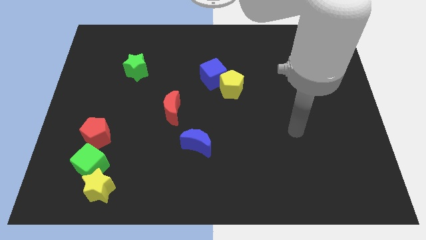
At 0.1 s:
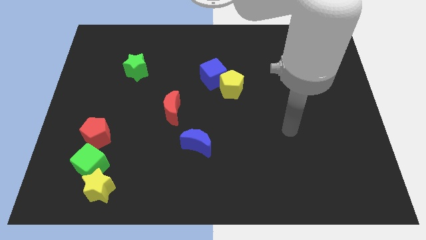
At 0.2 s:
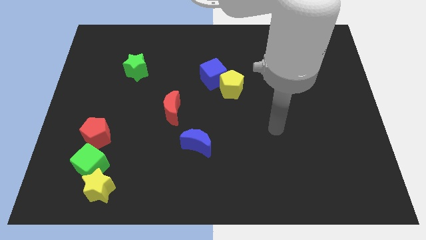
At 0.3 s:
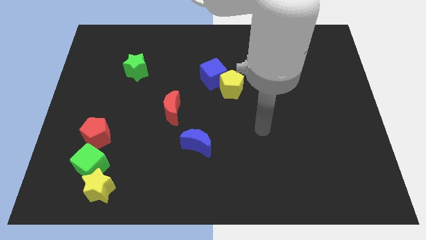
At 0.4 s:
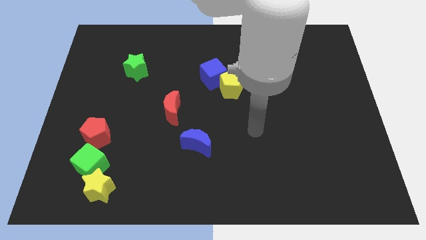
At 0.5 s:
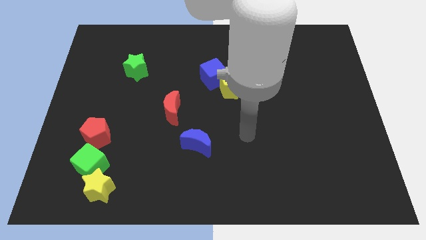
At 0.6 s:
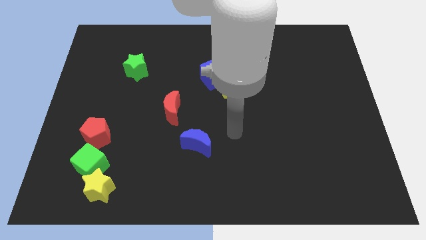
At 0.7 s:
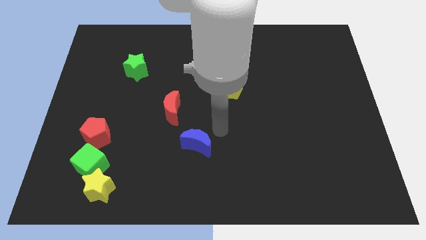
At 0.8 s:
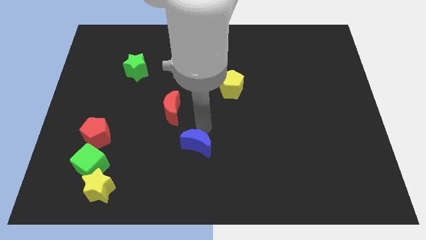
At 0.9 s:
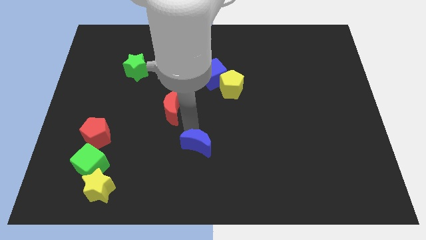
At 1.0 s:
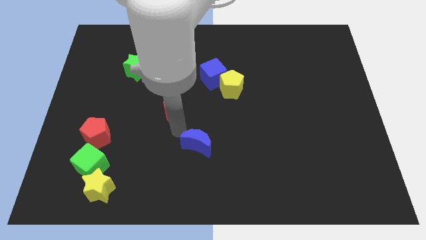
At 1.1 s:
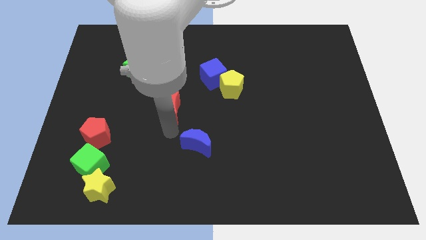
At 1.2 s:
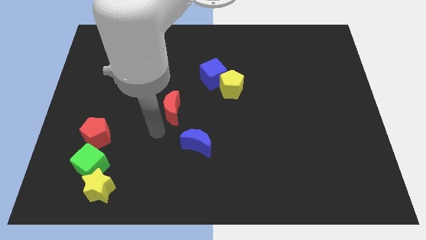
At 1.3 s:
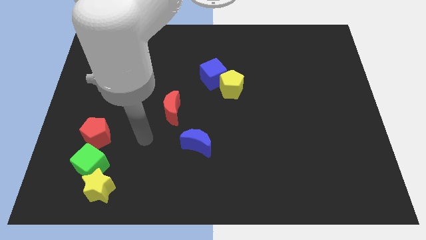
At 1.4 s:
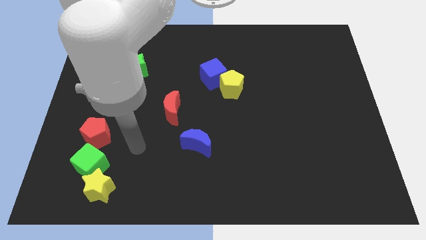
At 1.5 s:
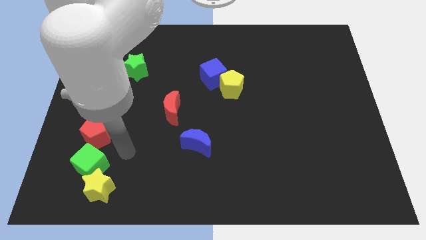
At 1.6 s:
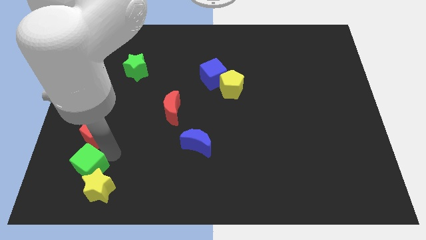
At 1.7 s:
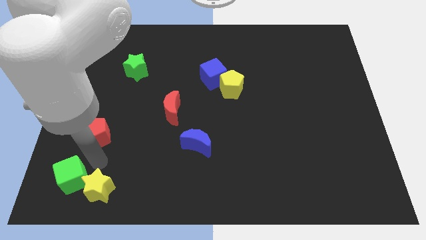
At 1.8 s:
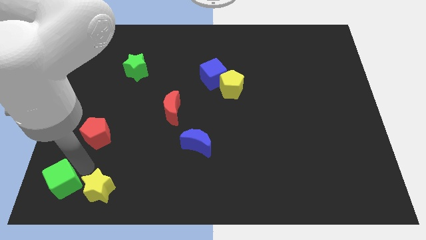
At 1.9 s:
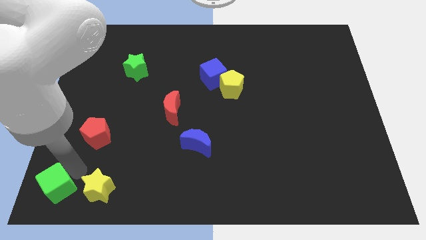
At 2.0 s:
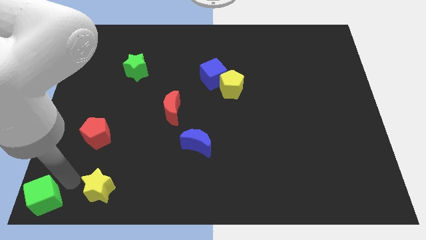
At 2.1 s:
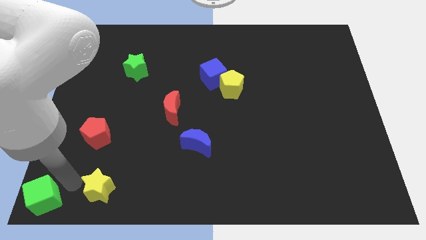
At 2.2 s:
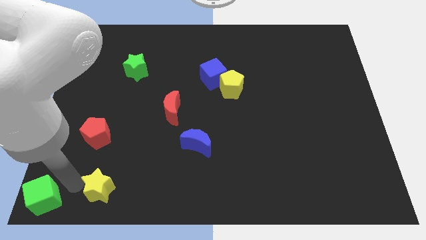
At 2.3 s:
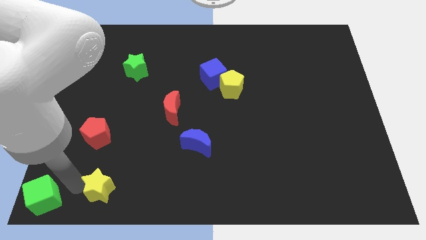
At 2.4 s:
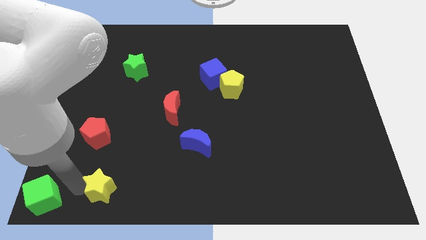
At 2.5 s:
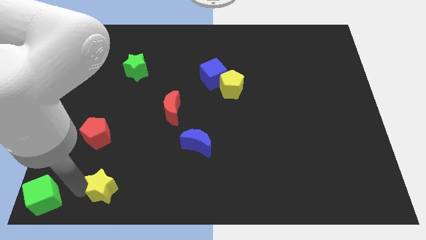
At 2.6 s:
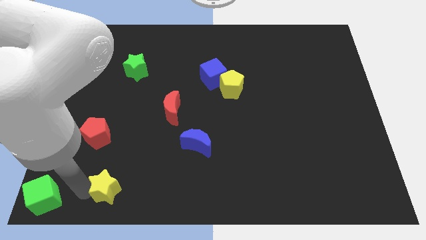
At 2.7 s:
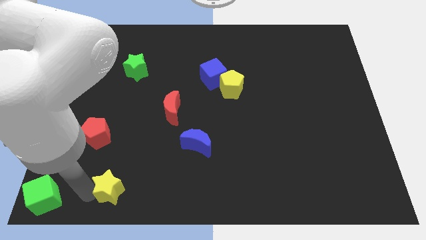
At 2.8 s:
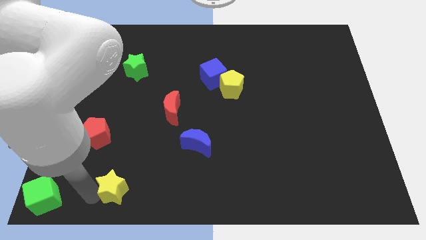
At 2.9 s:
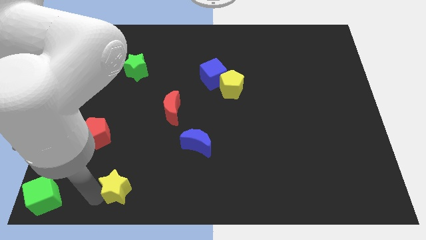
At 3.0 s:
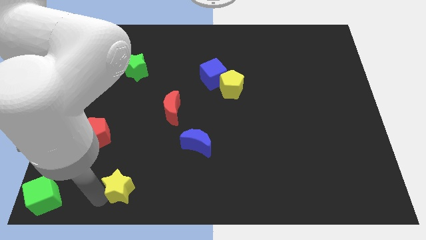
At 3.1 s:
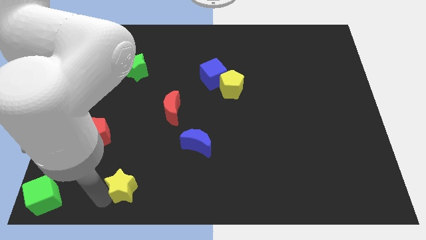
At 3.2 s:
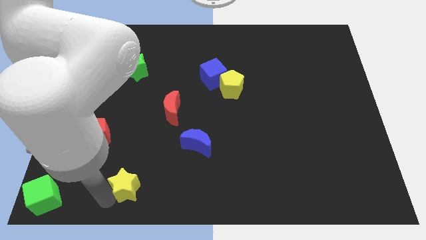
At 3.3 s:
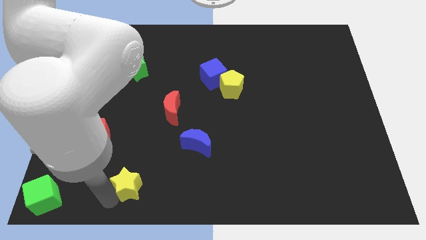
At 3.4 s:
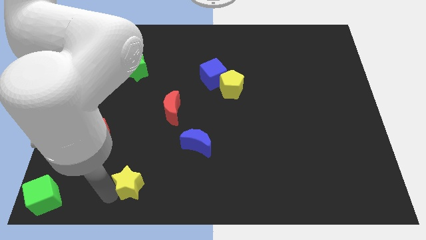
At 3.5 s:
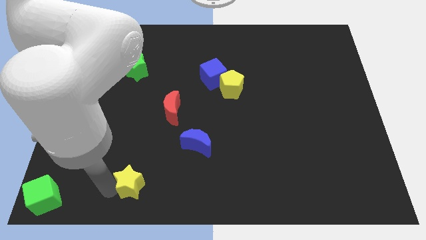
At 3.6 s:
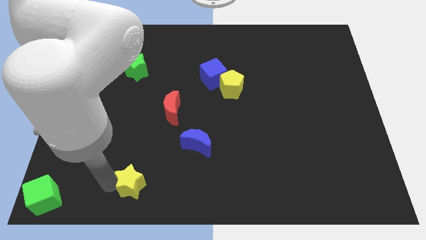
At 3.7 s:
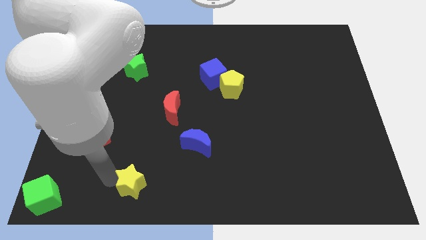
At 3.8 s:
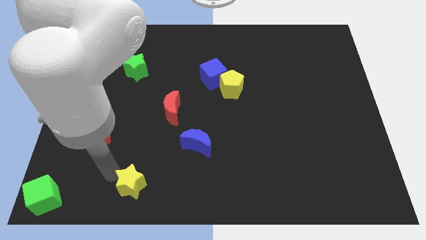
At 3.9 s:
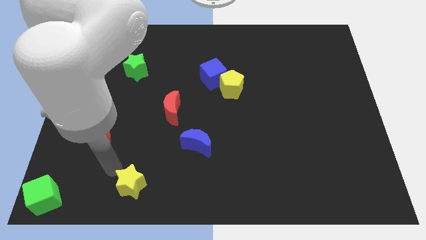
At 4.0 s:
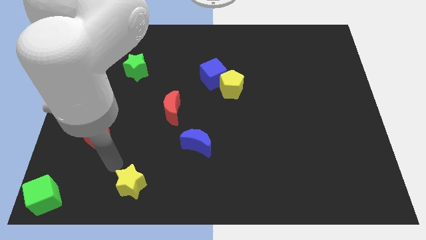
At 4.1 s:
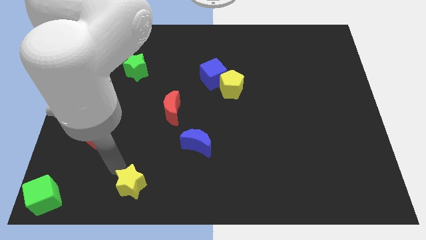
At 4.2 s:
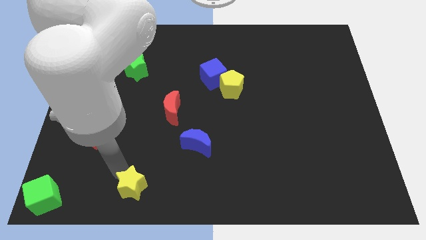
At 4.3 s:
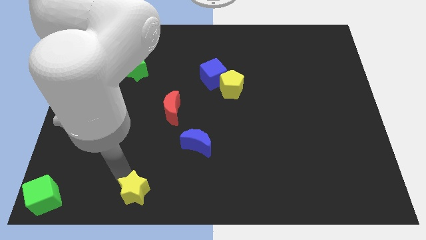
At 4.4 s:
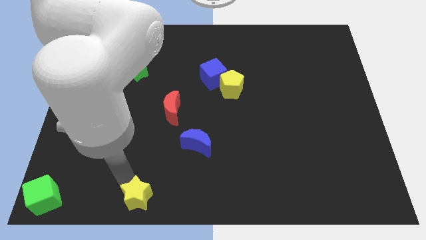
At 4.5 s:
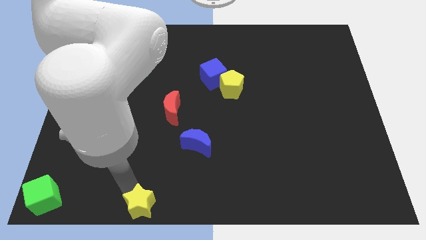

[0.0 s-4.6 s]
put the yellow star to the bottom

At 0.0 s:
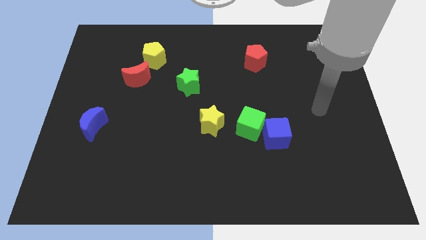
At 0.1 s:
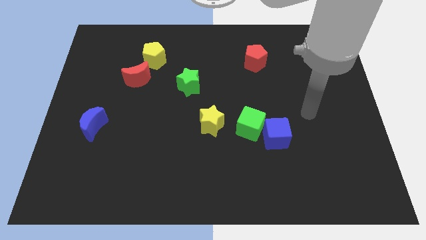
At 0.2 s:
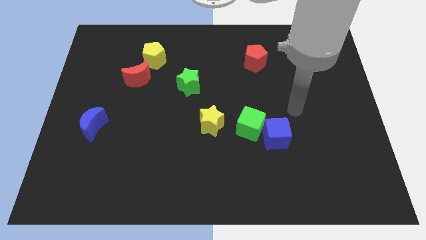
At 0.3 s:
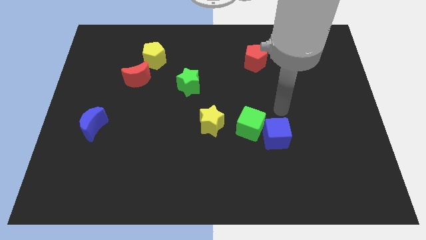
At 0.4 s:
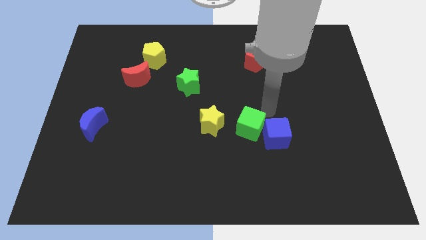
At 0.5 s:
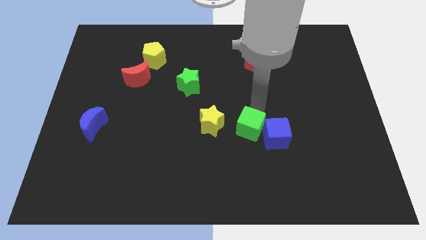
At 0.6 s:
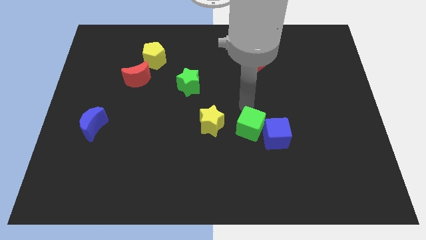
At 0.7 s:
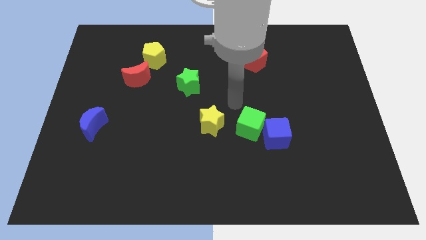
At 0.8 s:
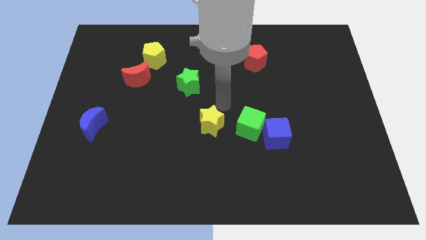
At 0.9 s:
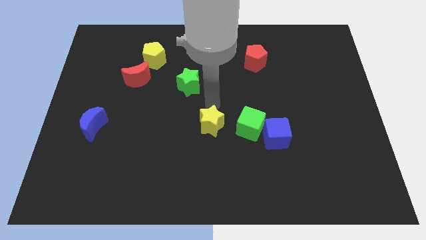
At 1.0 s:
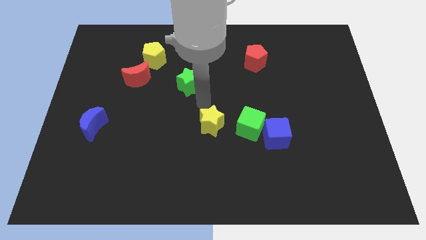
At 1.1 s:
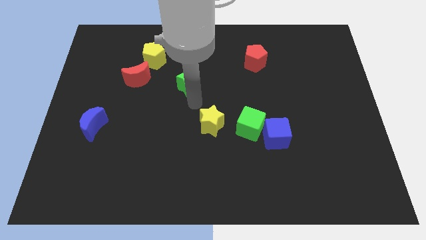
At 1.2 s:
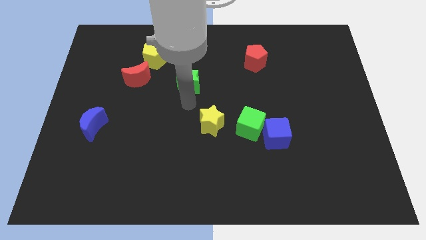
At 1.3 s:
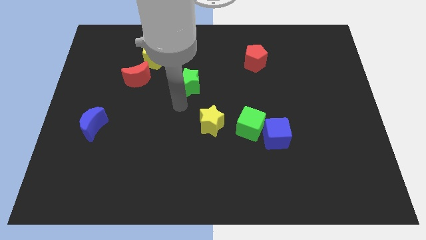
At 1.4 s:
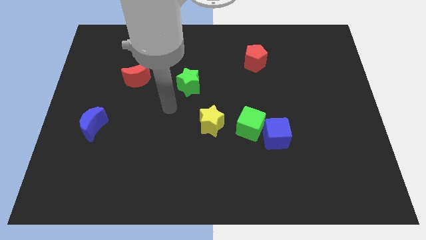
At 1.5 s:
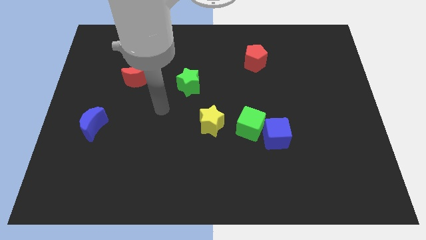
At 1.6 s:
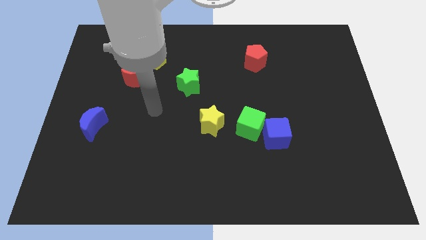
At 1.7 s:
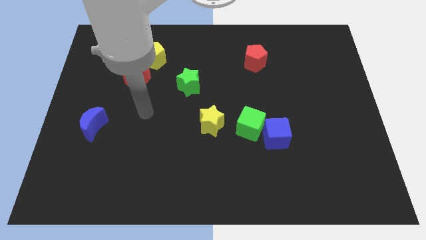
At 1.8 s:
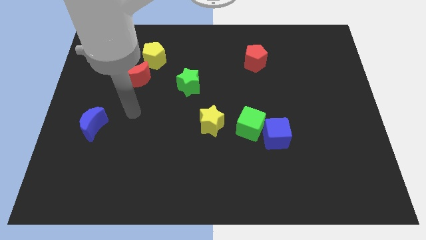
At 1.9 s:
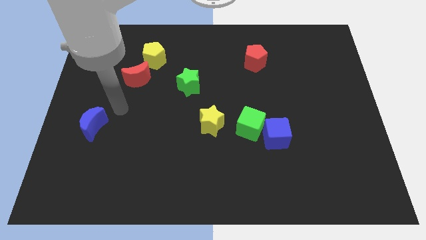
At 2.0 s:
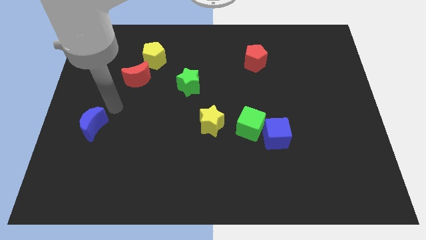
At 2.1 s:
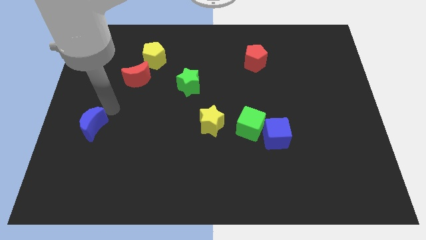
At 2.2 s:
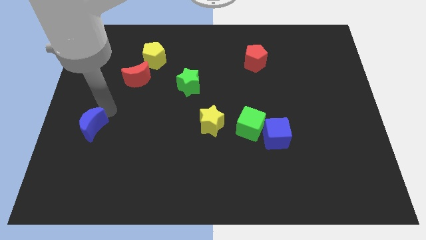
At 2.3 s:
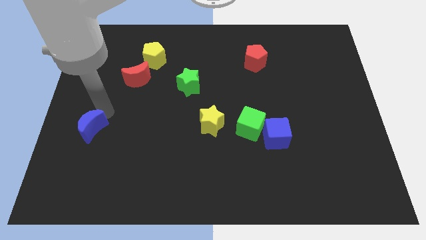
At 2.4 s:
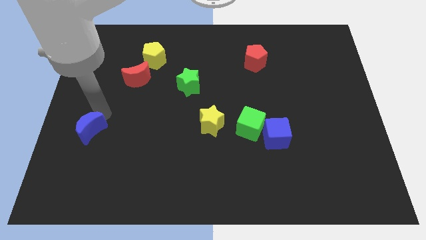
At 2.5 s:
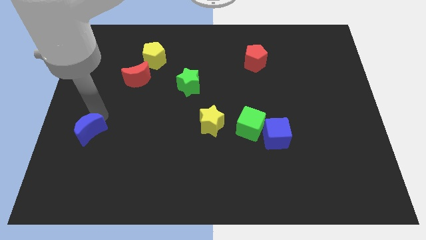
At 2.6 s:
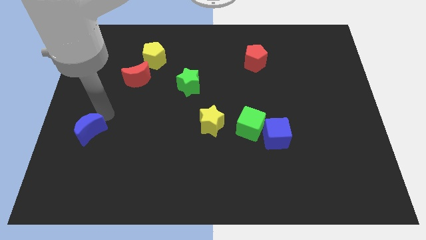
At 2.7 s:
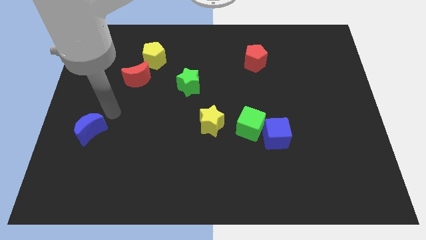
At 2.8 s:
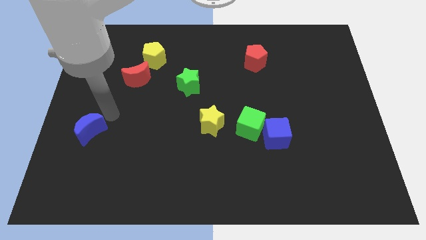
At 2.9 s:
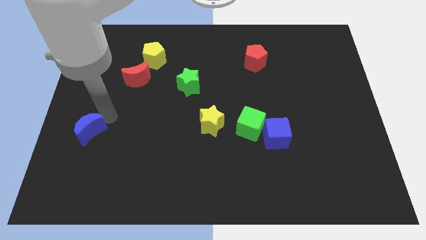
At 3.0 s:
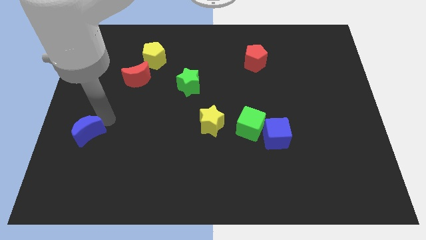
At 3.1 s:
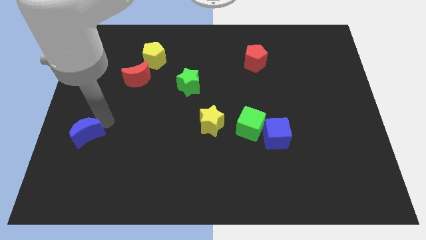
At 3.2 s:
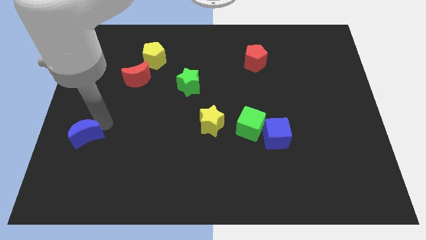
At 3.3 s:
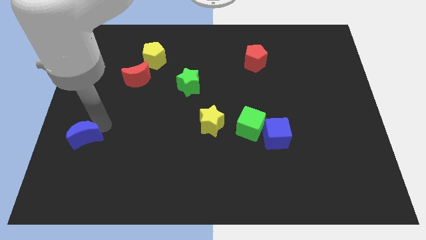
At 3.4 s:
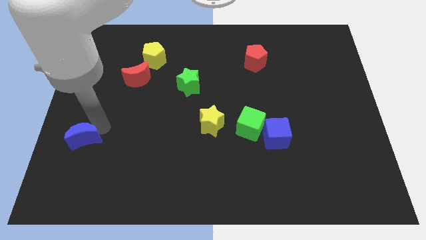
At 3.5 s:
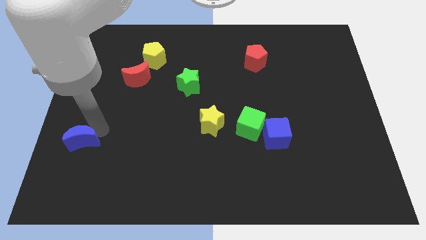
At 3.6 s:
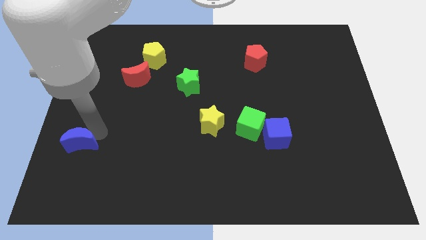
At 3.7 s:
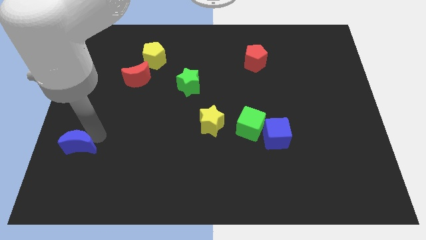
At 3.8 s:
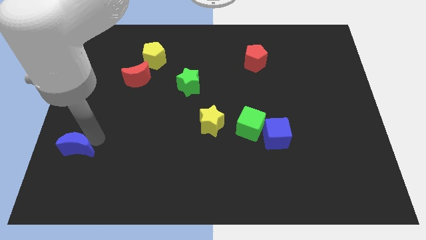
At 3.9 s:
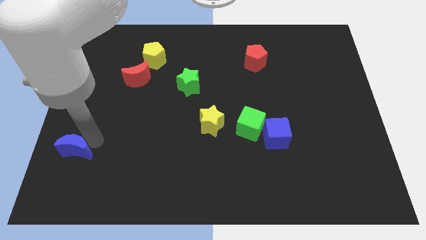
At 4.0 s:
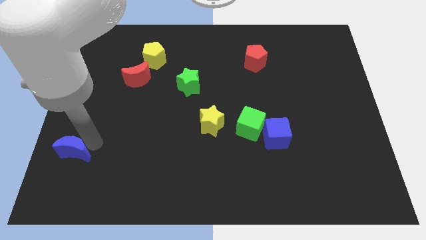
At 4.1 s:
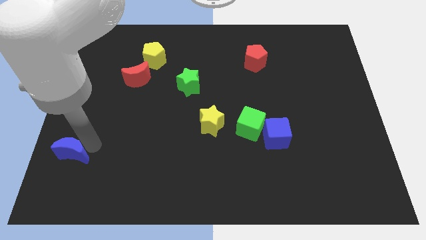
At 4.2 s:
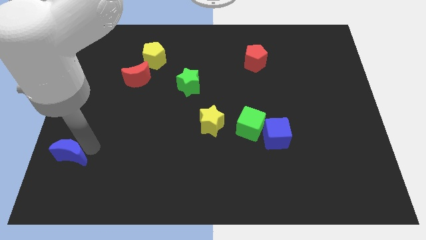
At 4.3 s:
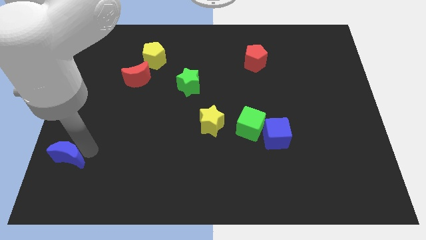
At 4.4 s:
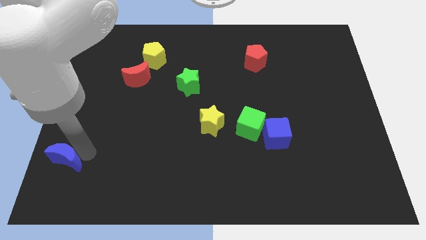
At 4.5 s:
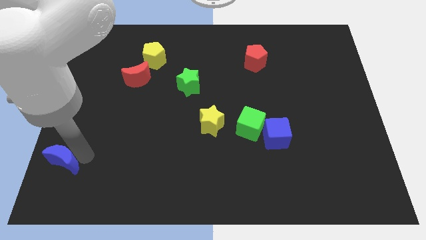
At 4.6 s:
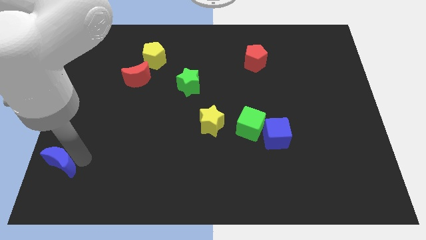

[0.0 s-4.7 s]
put the blue moon to the bottom left
